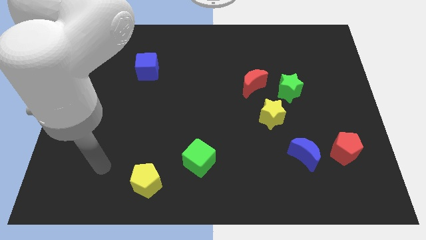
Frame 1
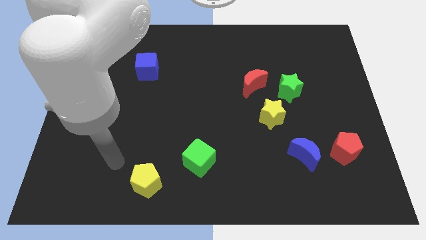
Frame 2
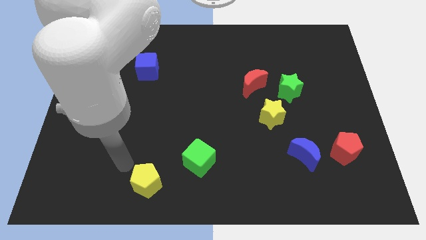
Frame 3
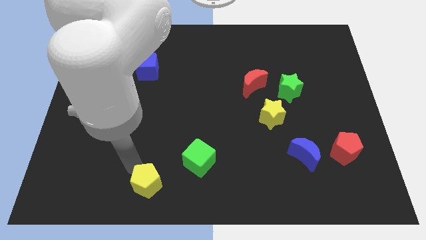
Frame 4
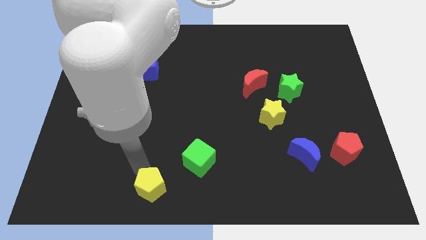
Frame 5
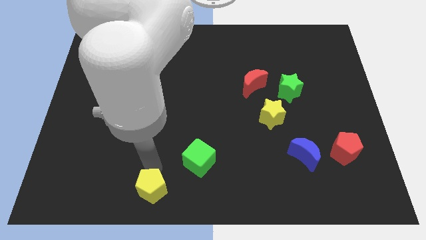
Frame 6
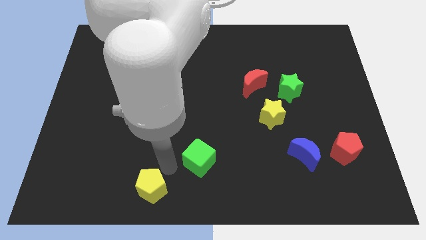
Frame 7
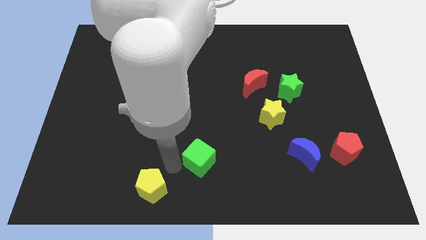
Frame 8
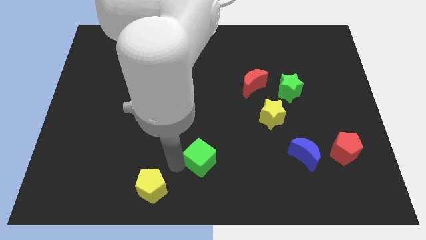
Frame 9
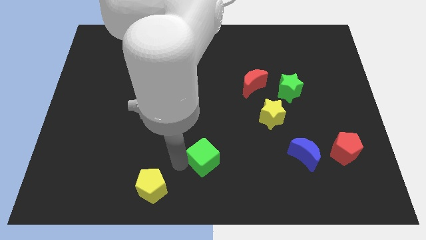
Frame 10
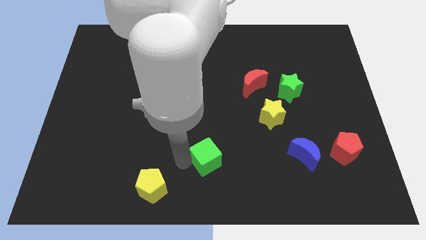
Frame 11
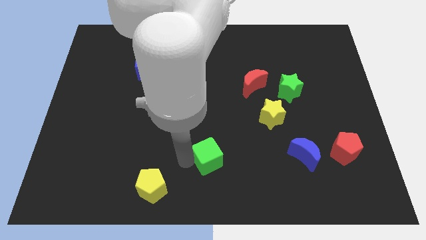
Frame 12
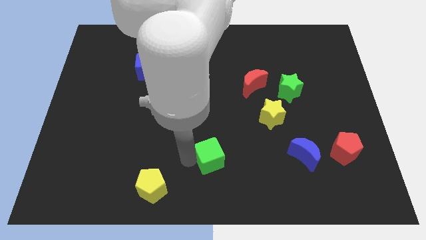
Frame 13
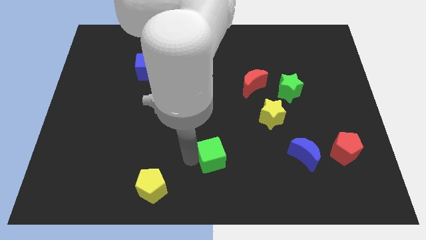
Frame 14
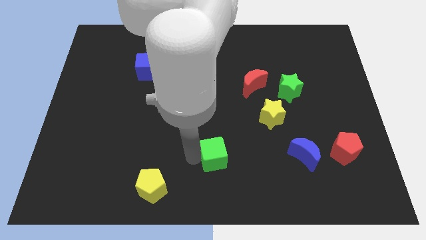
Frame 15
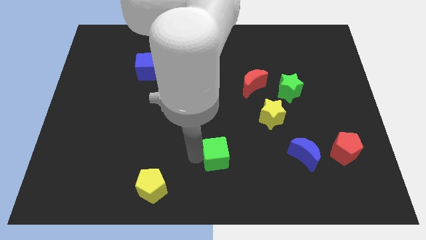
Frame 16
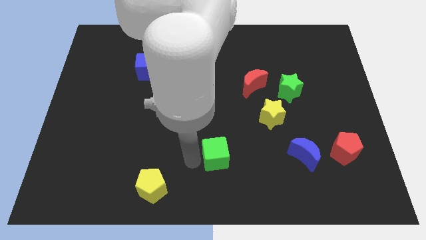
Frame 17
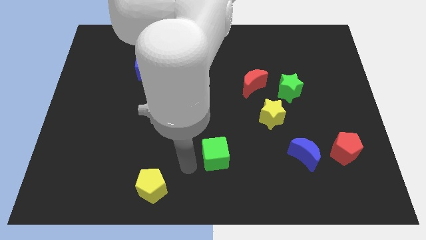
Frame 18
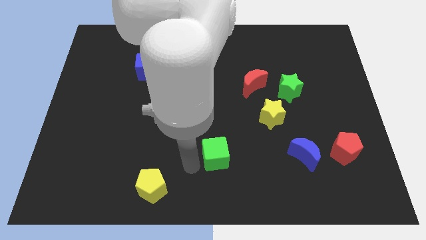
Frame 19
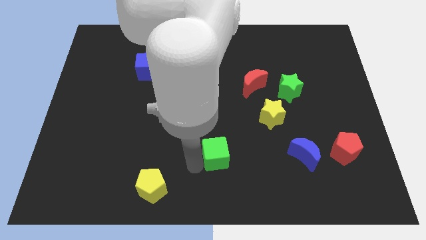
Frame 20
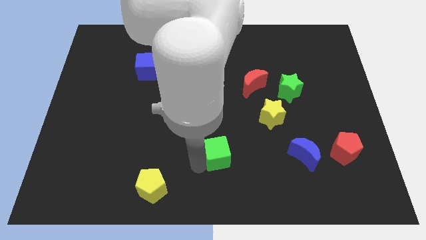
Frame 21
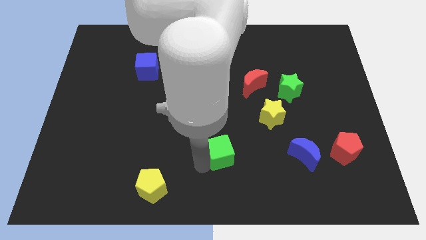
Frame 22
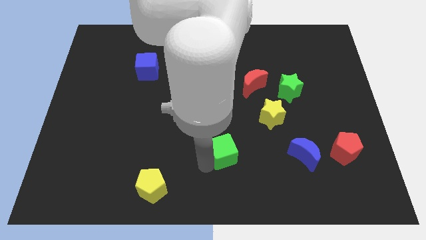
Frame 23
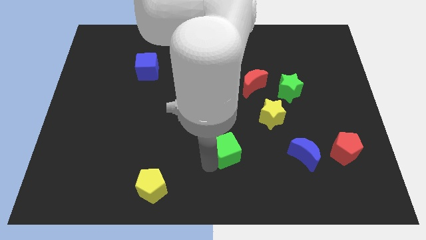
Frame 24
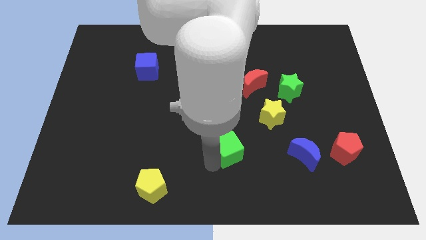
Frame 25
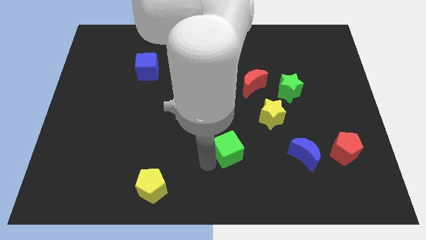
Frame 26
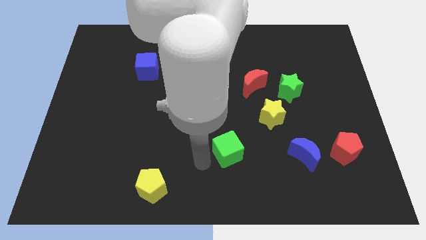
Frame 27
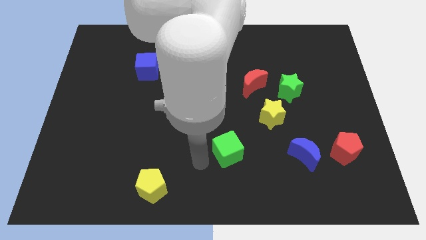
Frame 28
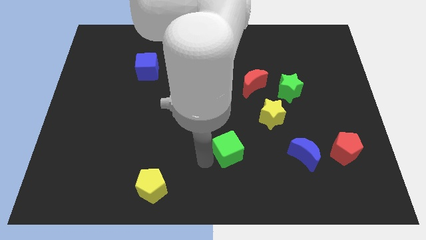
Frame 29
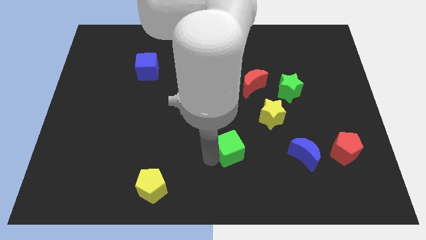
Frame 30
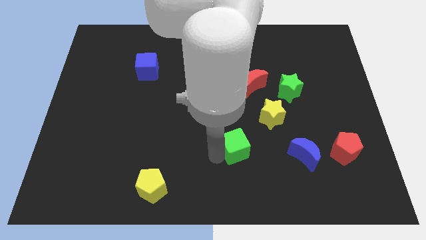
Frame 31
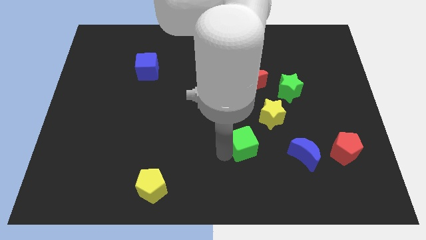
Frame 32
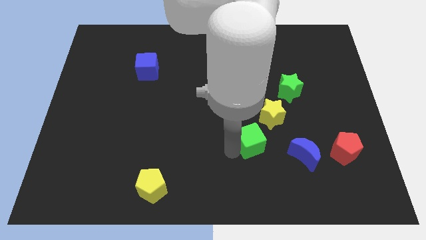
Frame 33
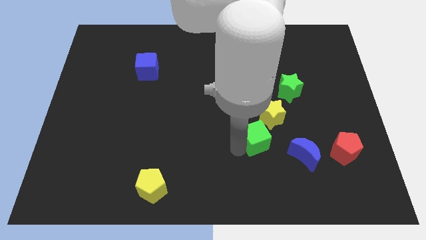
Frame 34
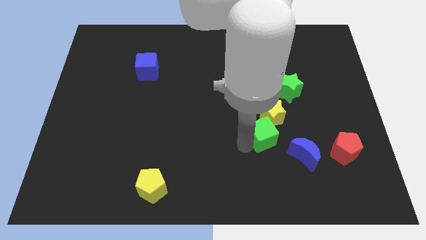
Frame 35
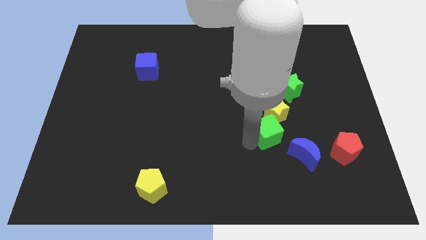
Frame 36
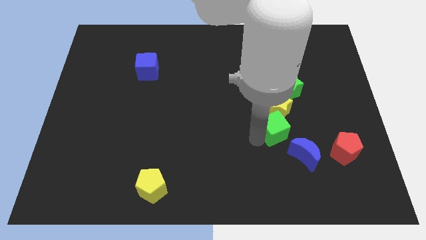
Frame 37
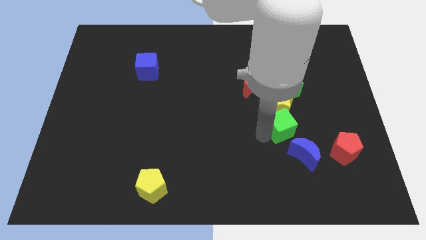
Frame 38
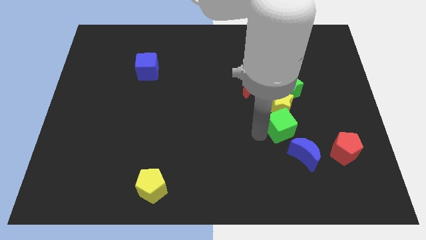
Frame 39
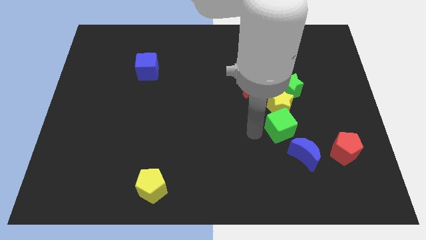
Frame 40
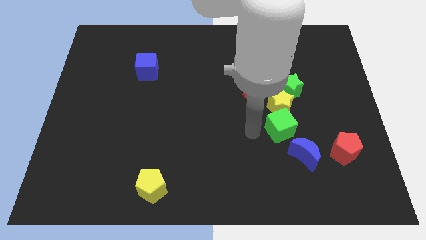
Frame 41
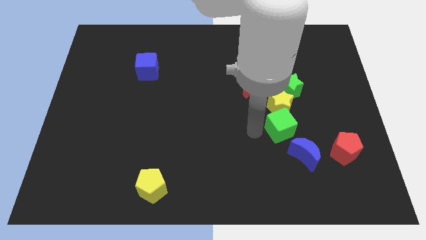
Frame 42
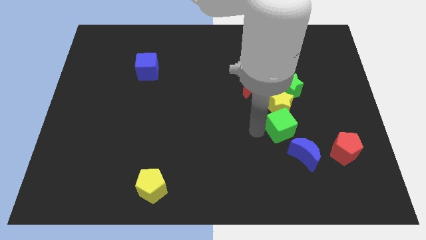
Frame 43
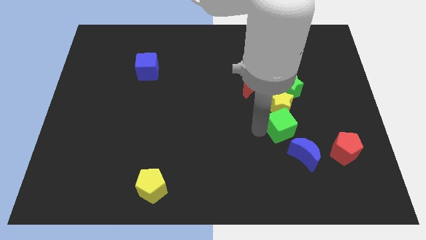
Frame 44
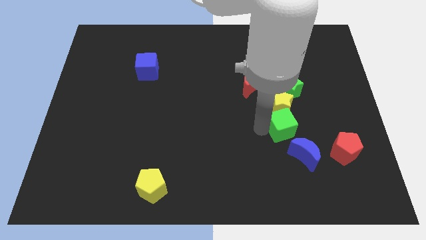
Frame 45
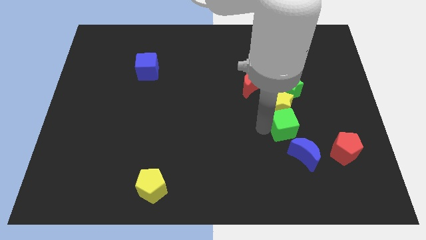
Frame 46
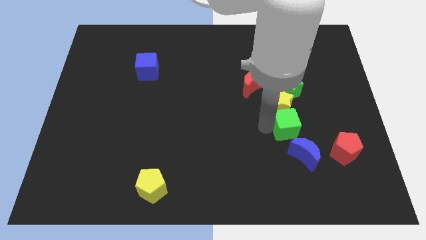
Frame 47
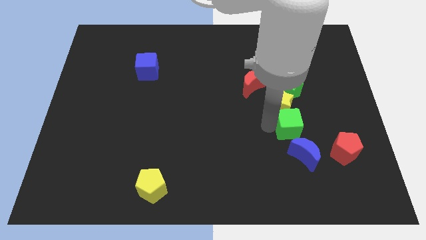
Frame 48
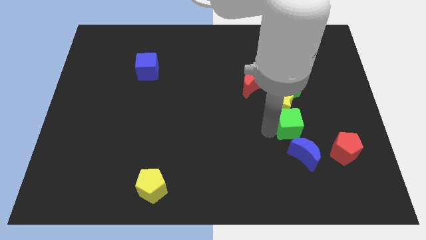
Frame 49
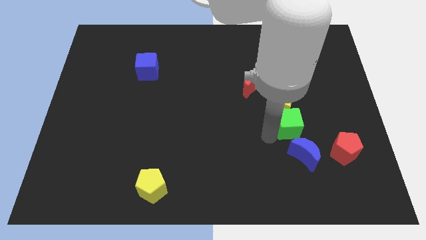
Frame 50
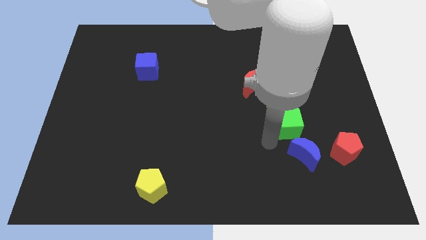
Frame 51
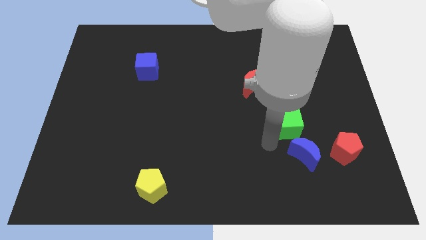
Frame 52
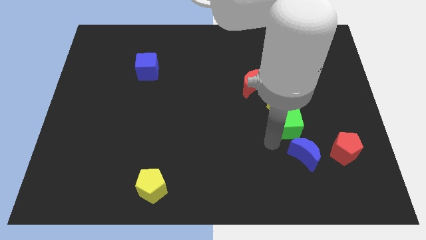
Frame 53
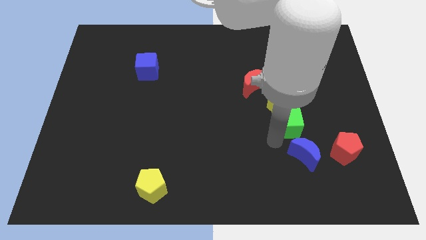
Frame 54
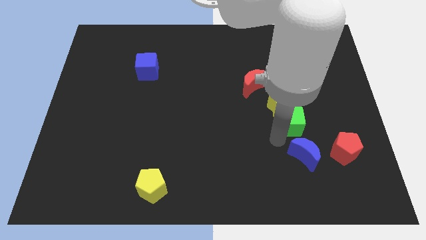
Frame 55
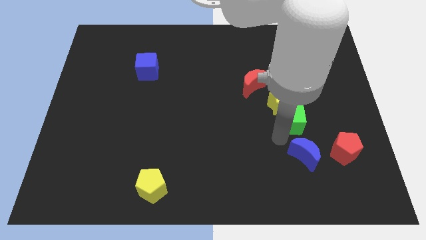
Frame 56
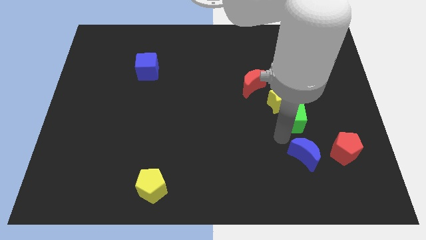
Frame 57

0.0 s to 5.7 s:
move the green cube upwards and to the right diagonally

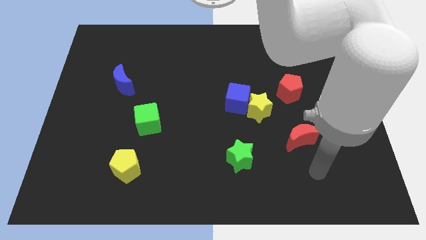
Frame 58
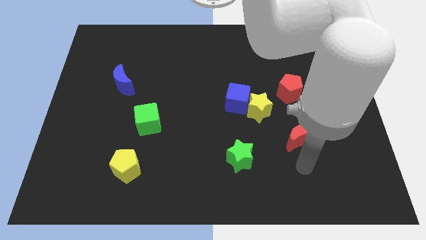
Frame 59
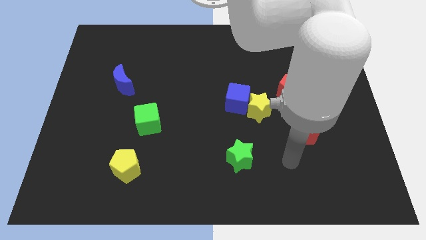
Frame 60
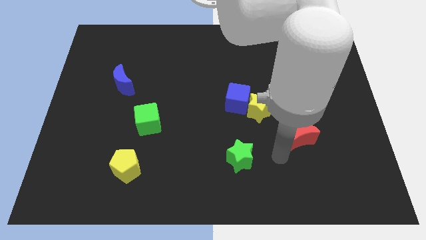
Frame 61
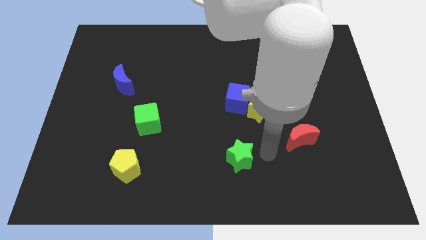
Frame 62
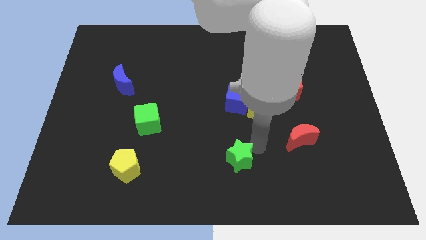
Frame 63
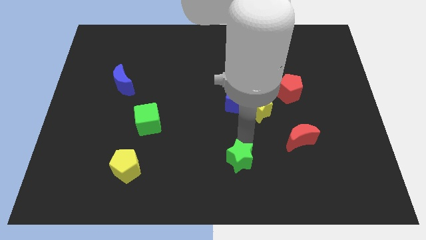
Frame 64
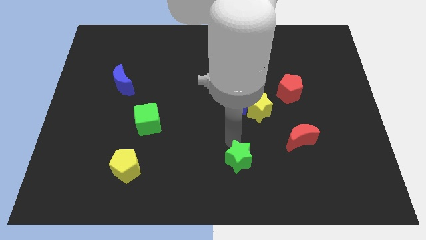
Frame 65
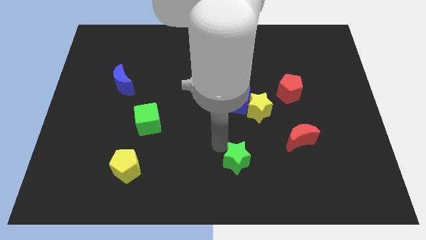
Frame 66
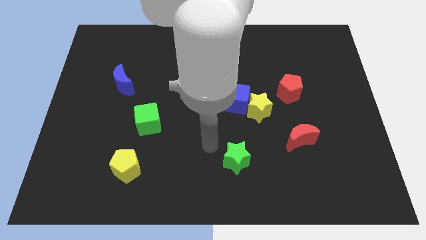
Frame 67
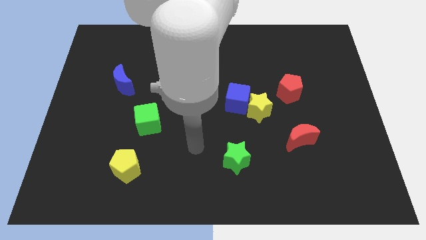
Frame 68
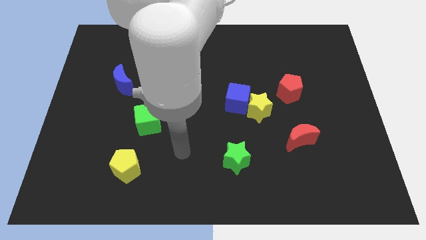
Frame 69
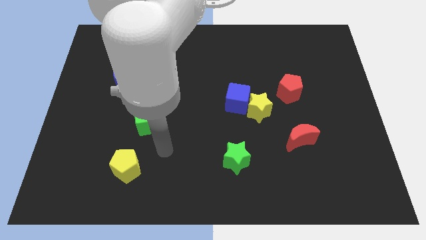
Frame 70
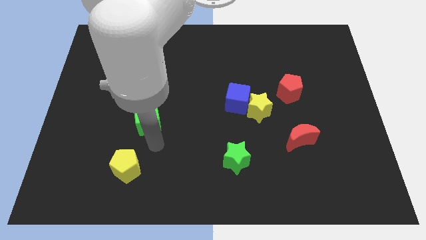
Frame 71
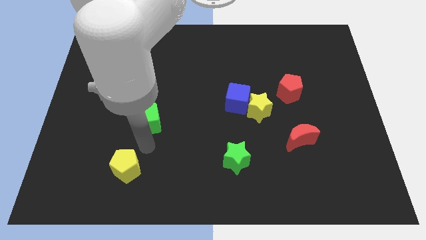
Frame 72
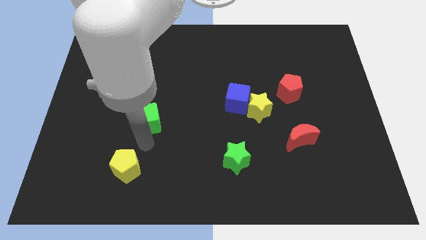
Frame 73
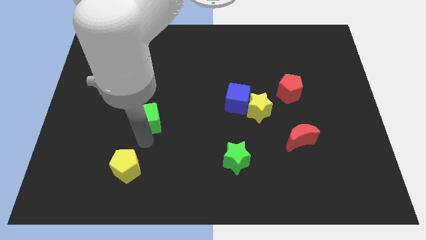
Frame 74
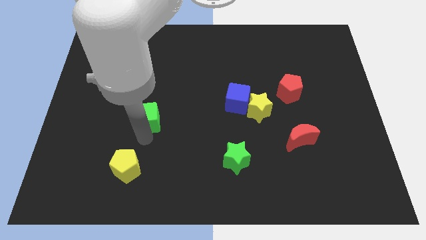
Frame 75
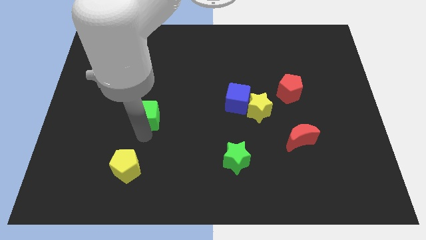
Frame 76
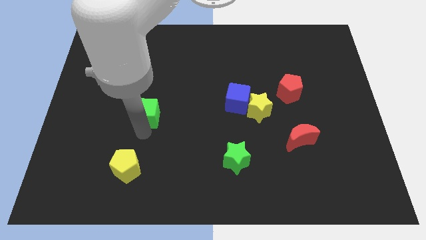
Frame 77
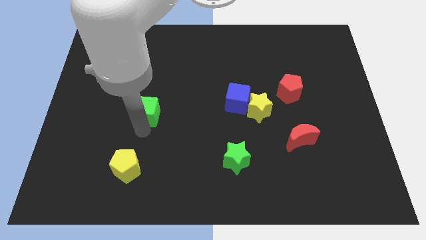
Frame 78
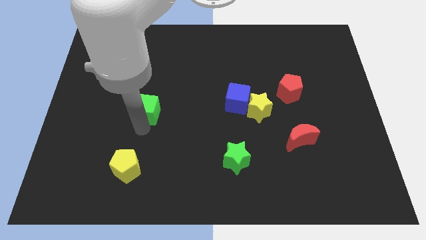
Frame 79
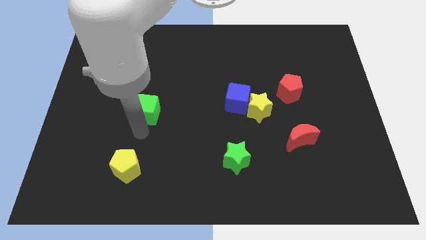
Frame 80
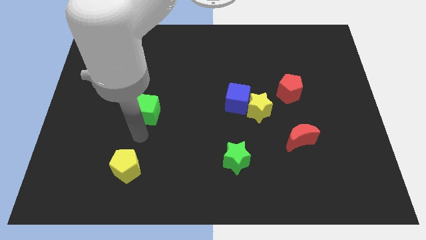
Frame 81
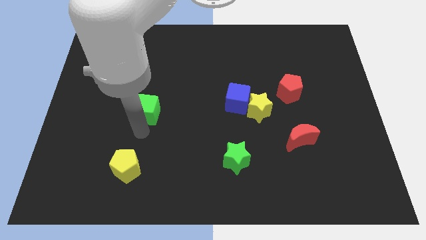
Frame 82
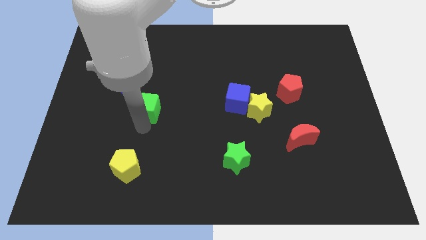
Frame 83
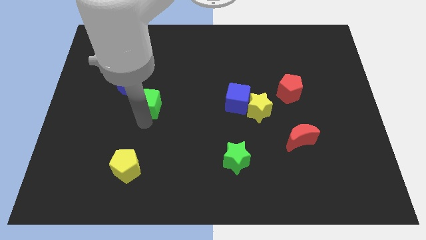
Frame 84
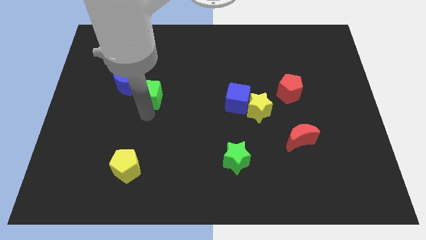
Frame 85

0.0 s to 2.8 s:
move the green cube somewhat upwards

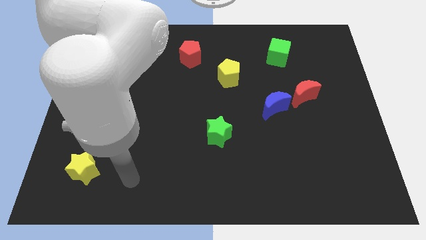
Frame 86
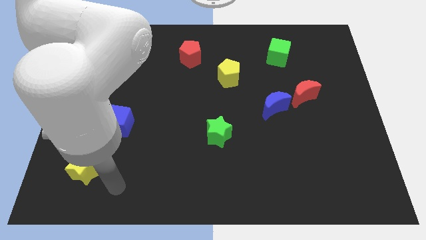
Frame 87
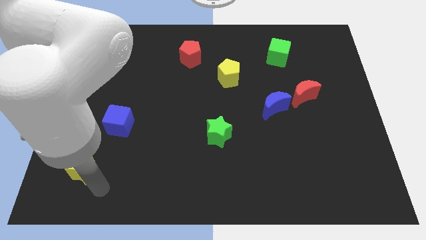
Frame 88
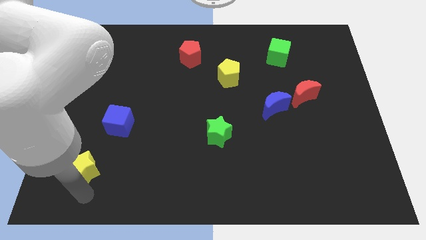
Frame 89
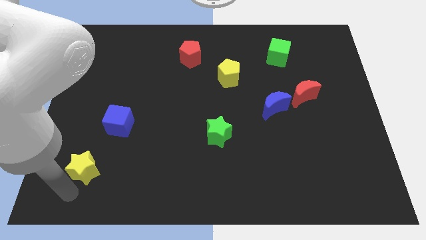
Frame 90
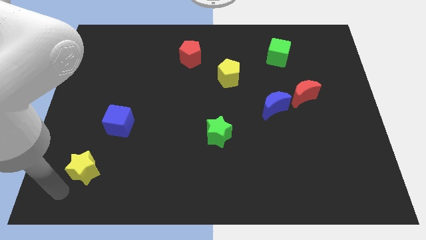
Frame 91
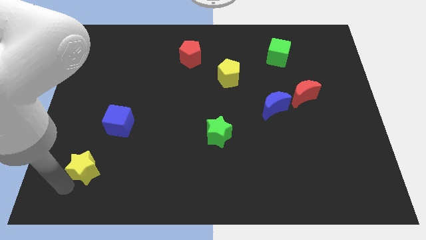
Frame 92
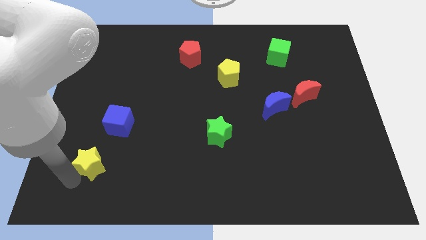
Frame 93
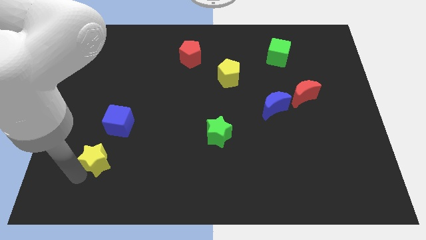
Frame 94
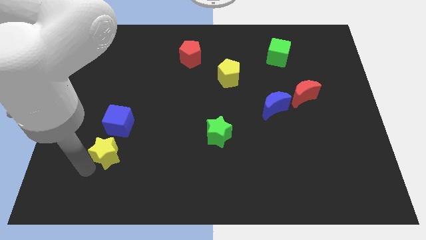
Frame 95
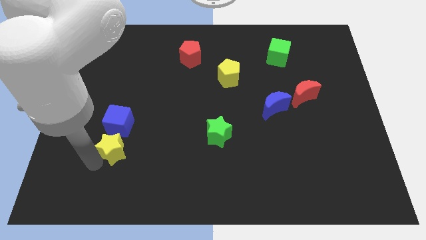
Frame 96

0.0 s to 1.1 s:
move the yellow star a little bit diagonally up and to the right
